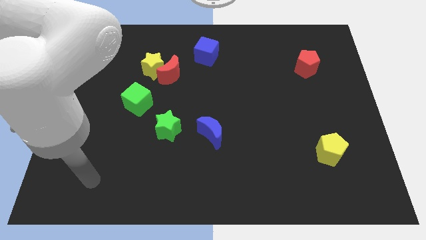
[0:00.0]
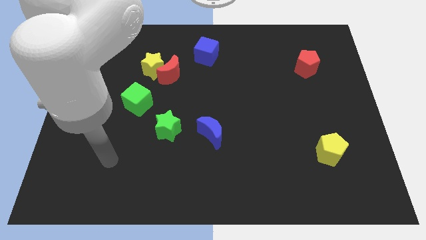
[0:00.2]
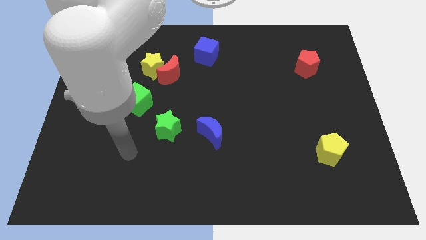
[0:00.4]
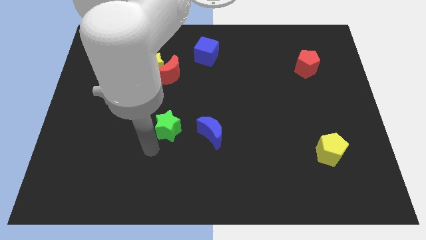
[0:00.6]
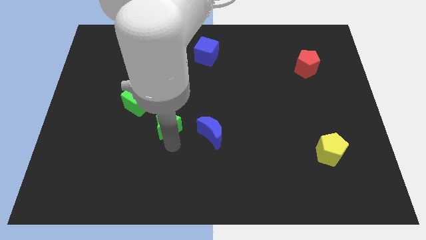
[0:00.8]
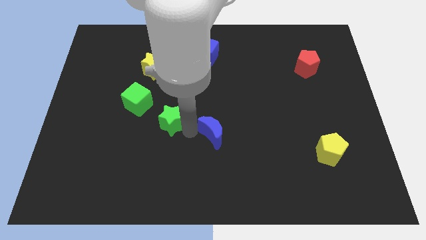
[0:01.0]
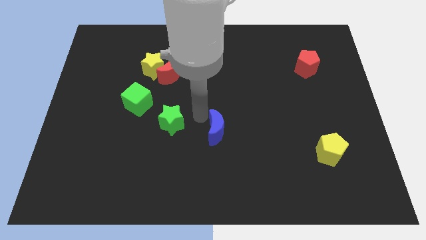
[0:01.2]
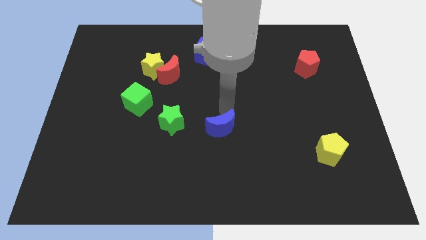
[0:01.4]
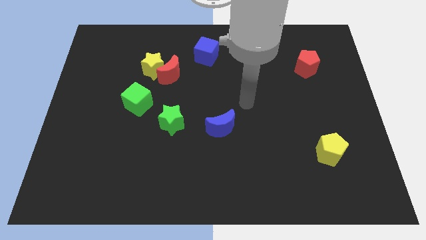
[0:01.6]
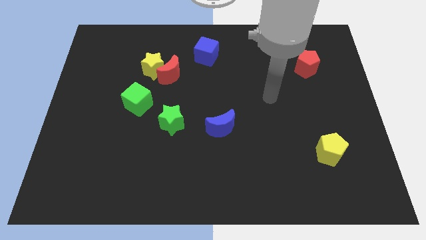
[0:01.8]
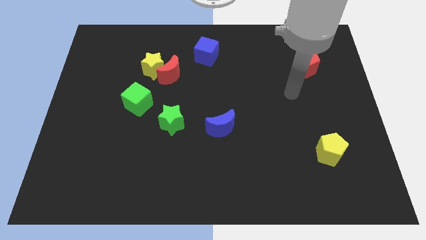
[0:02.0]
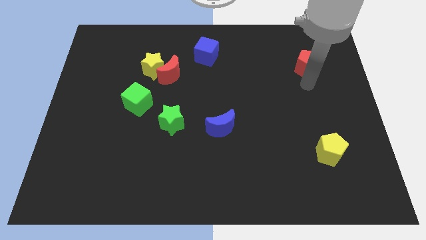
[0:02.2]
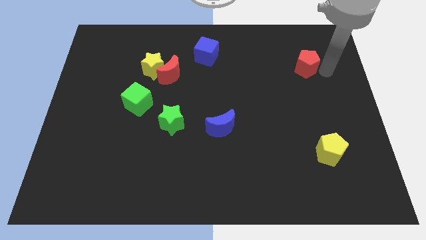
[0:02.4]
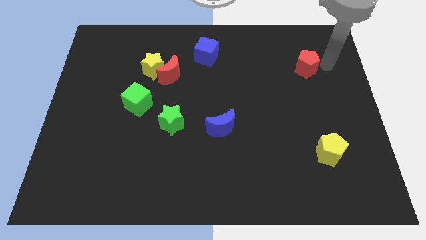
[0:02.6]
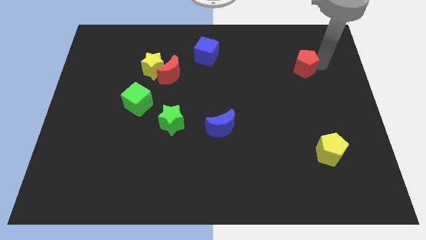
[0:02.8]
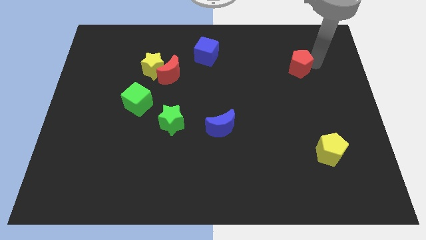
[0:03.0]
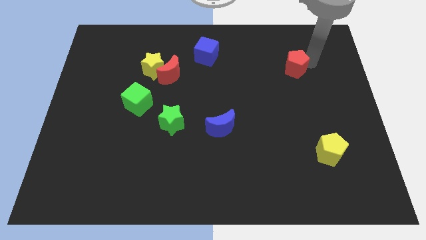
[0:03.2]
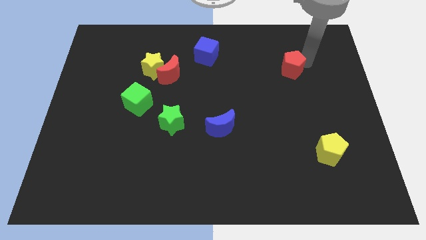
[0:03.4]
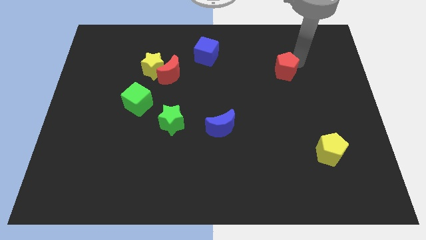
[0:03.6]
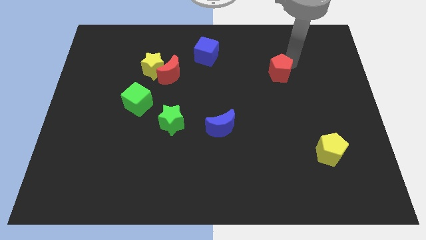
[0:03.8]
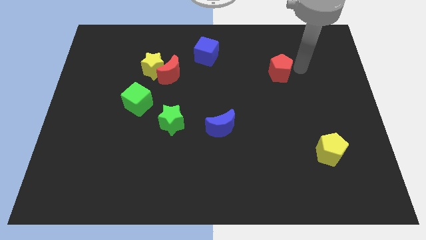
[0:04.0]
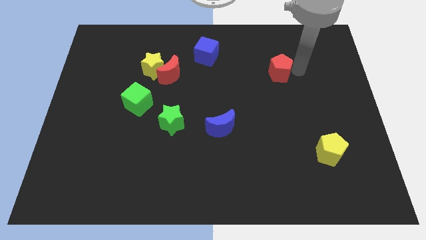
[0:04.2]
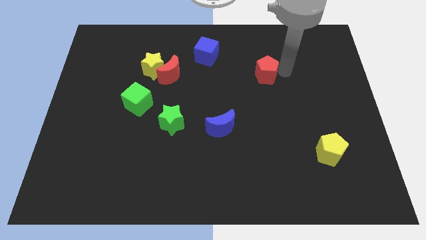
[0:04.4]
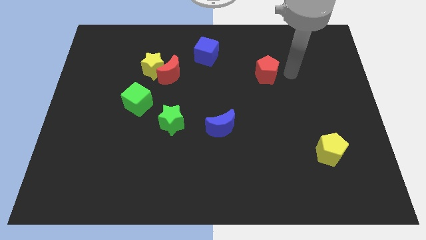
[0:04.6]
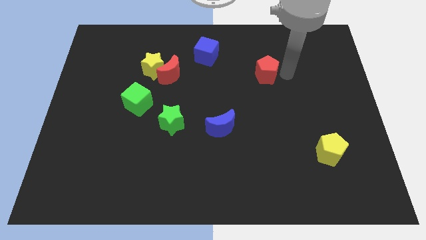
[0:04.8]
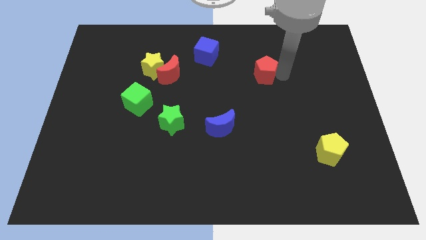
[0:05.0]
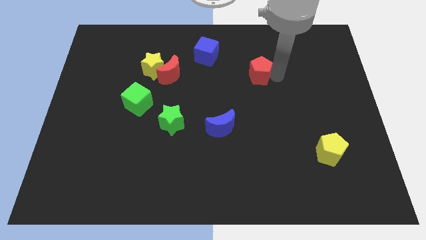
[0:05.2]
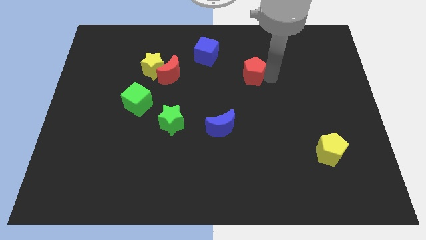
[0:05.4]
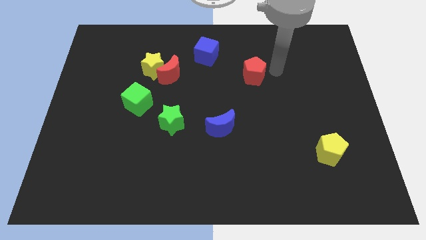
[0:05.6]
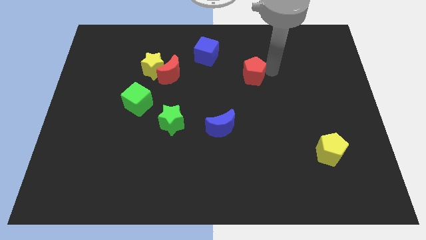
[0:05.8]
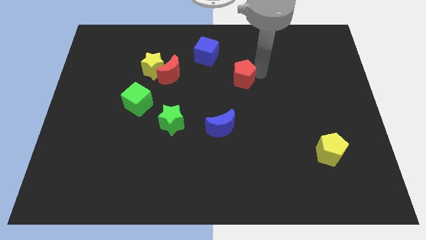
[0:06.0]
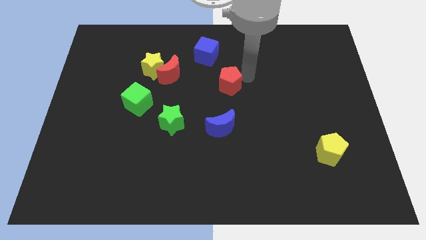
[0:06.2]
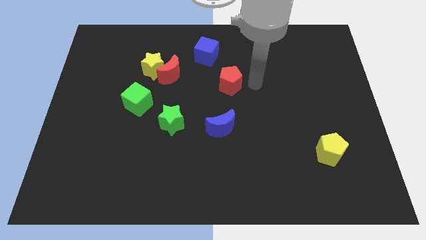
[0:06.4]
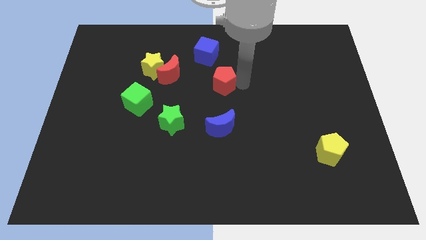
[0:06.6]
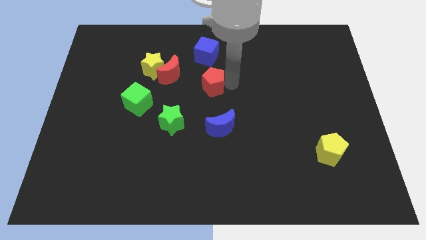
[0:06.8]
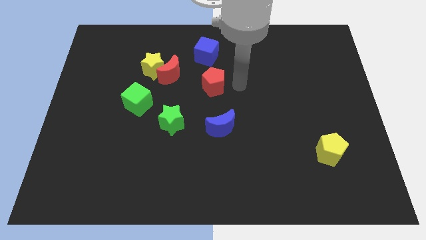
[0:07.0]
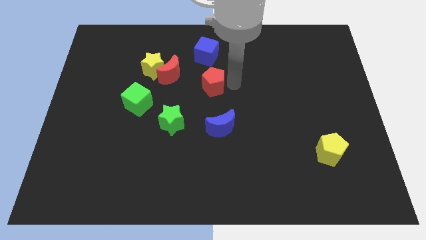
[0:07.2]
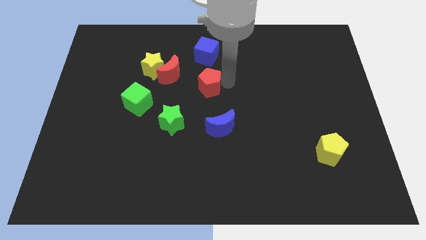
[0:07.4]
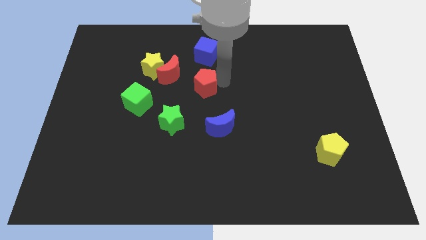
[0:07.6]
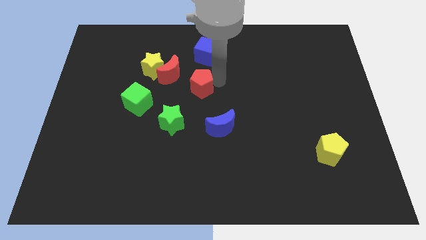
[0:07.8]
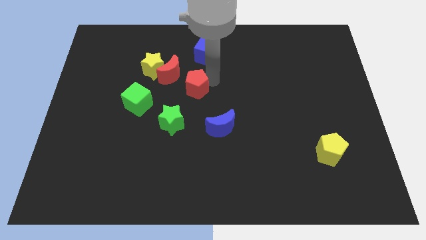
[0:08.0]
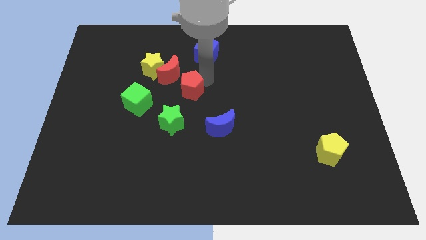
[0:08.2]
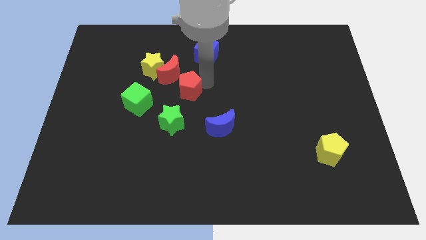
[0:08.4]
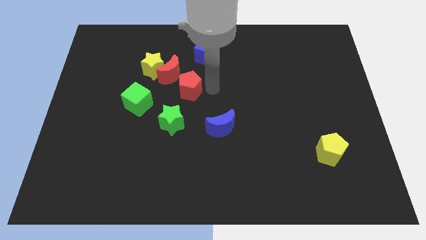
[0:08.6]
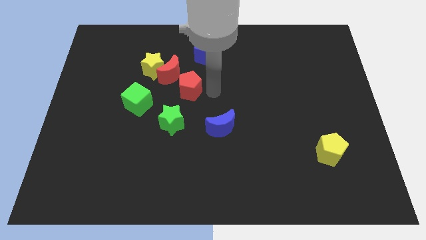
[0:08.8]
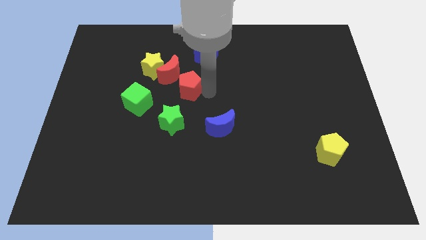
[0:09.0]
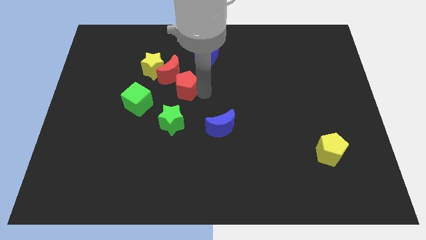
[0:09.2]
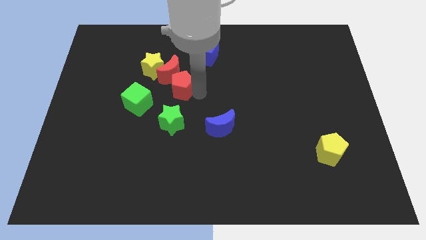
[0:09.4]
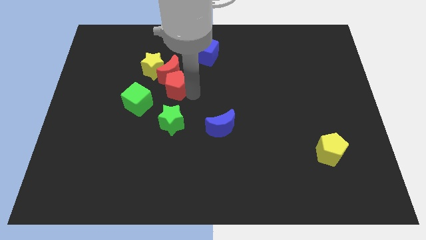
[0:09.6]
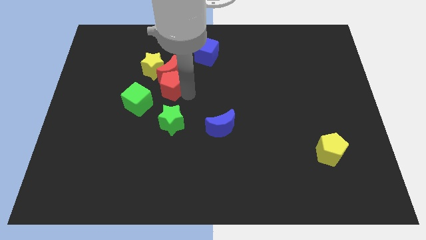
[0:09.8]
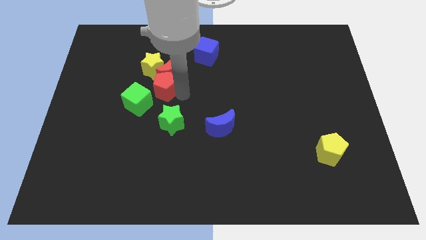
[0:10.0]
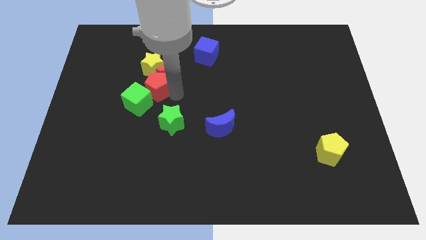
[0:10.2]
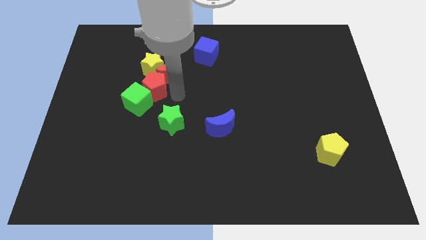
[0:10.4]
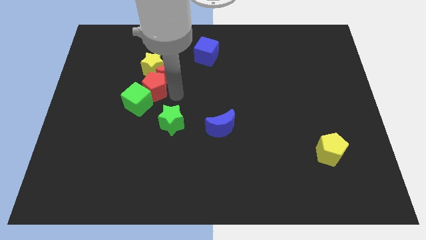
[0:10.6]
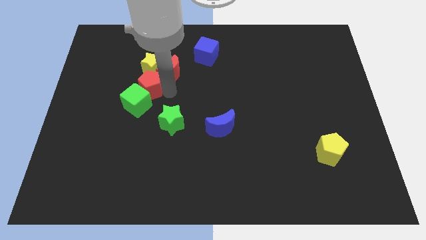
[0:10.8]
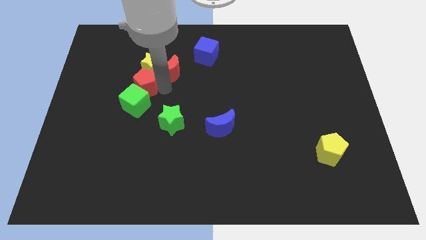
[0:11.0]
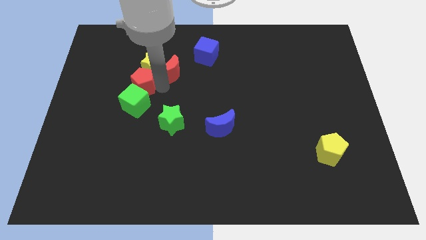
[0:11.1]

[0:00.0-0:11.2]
move the red pentagon to the top left of the green cube

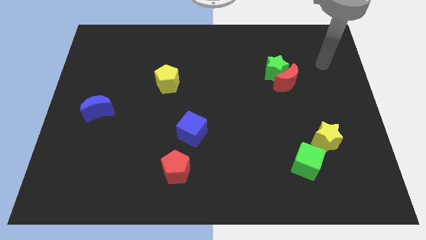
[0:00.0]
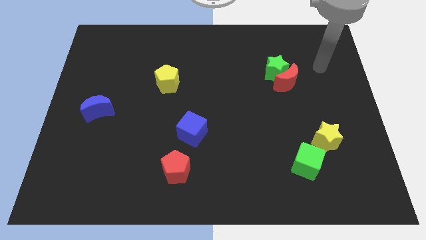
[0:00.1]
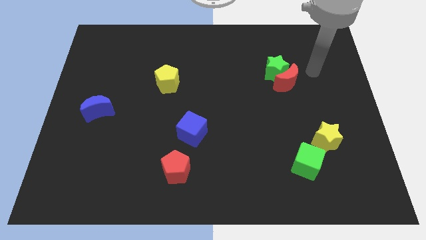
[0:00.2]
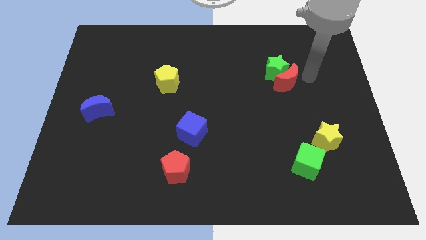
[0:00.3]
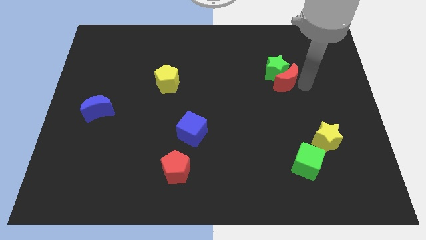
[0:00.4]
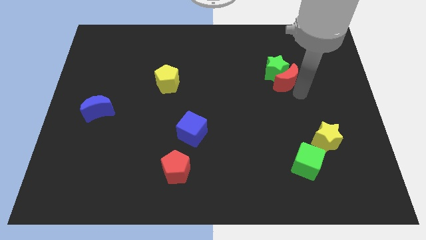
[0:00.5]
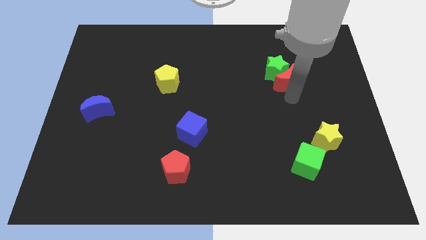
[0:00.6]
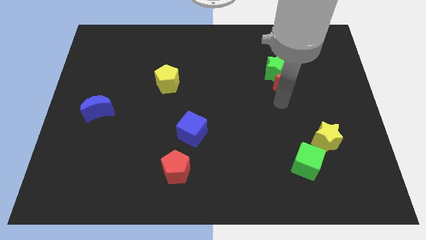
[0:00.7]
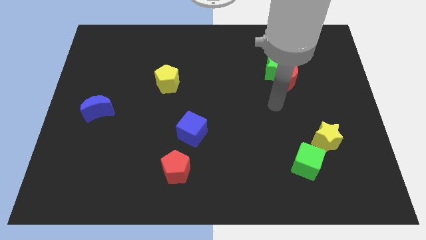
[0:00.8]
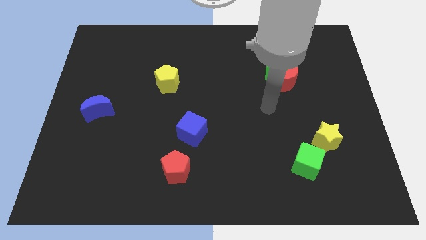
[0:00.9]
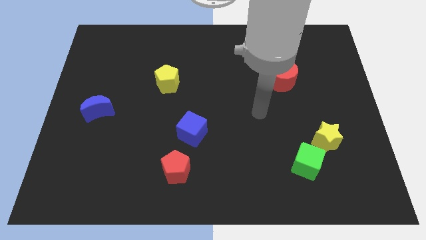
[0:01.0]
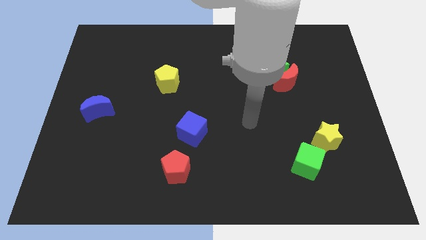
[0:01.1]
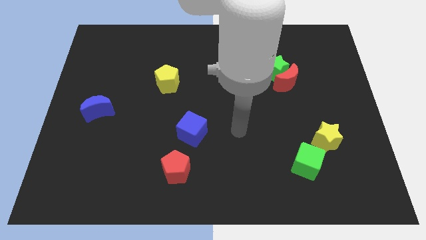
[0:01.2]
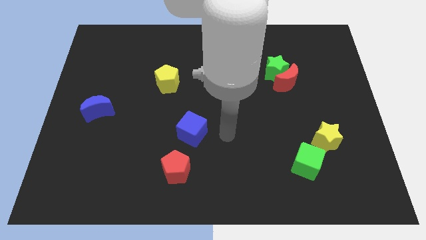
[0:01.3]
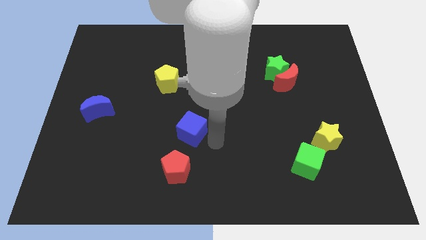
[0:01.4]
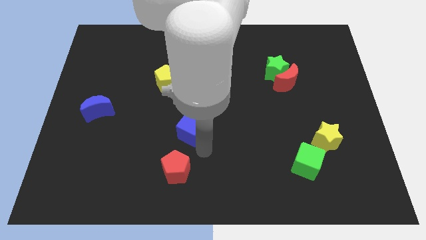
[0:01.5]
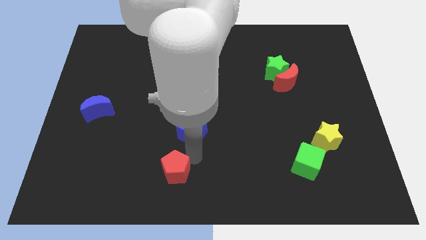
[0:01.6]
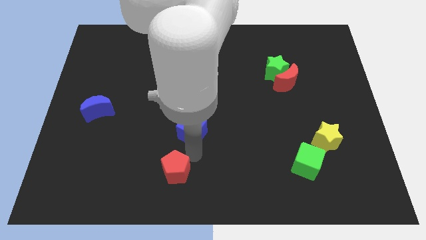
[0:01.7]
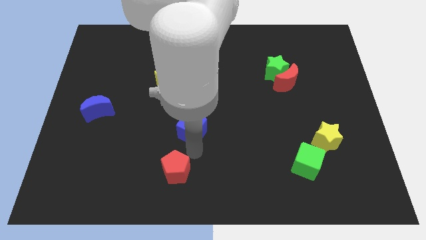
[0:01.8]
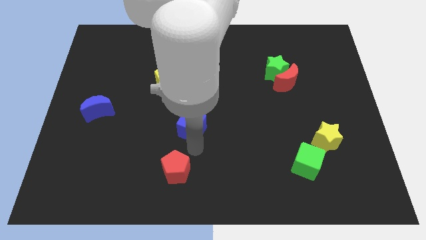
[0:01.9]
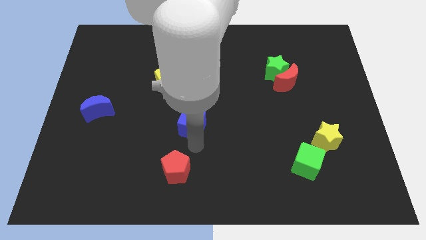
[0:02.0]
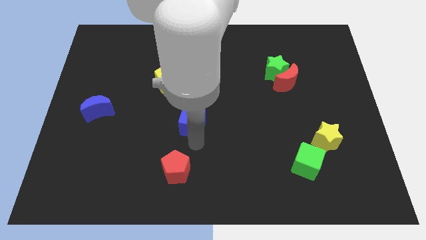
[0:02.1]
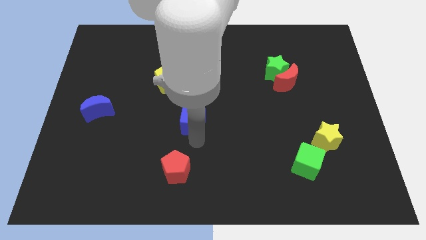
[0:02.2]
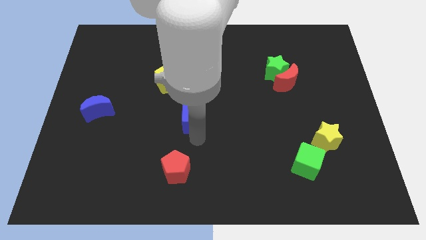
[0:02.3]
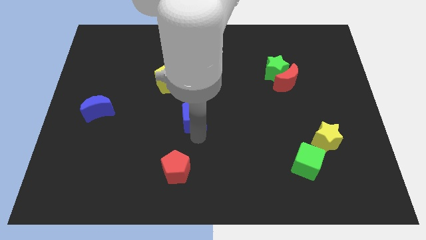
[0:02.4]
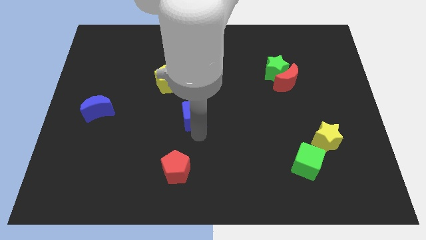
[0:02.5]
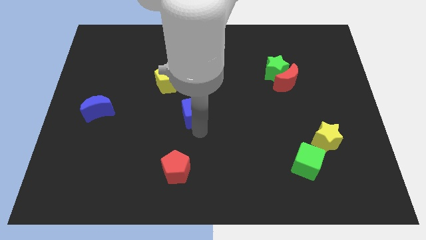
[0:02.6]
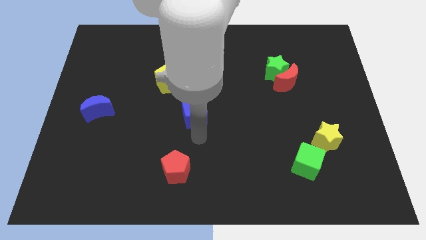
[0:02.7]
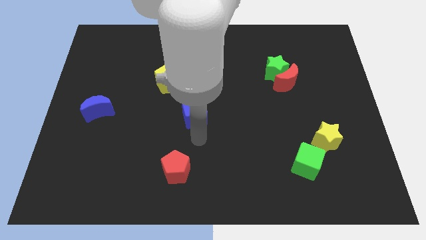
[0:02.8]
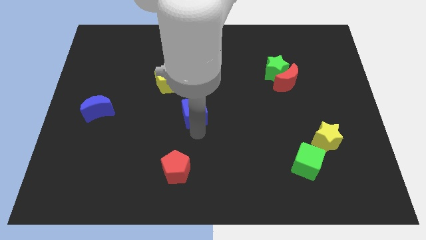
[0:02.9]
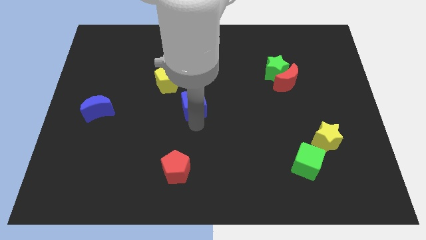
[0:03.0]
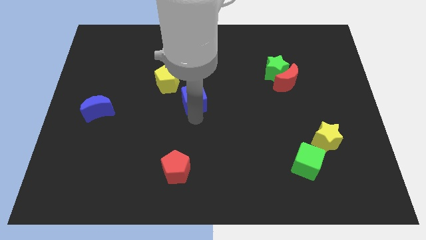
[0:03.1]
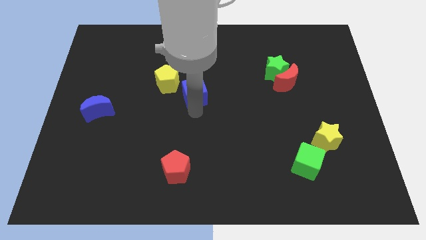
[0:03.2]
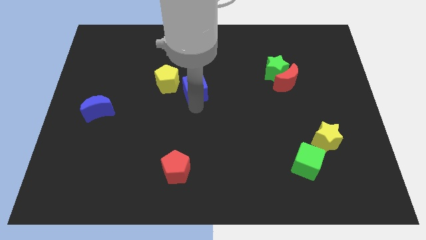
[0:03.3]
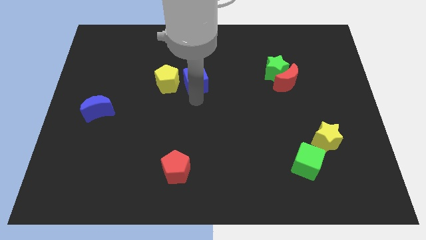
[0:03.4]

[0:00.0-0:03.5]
move the blue cube to the top right of the yellow pentagon
